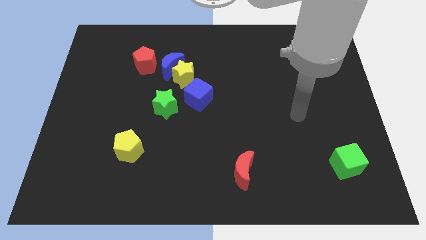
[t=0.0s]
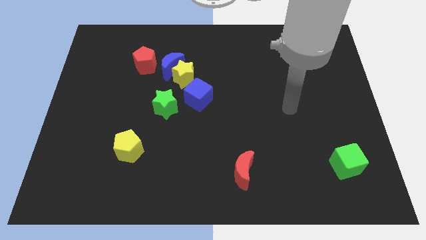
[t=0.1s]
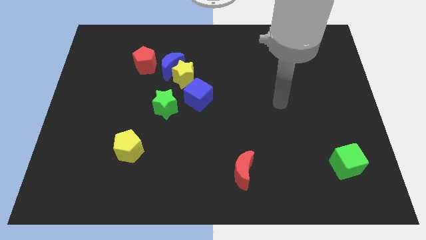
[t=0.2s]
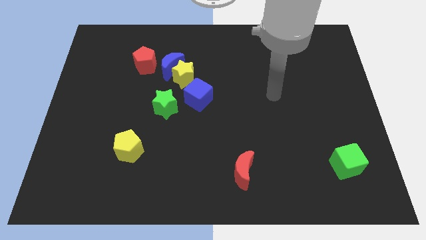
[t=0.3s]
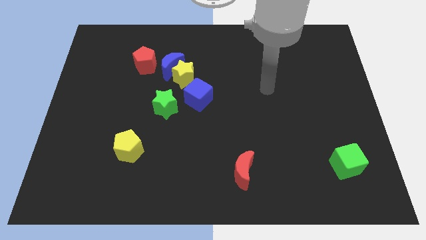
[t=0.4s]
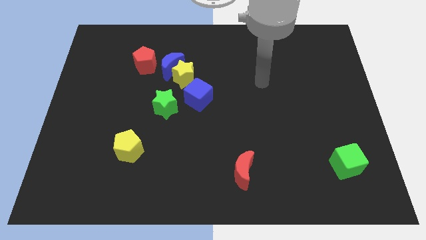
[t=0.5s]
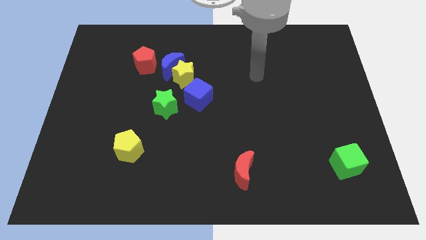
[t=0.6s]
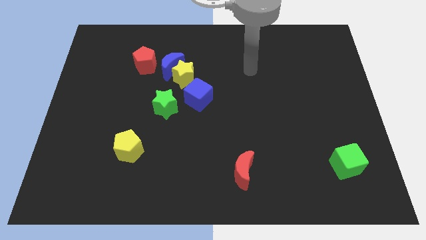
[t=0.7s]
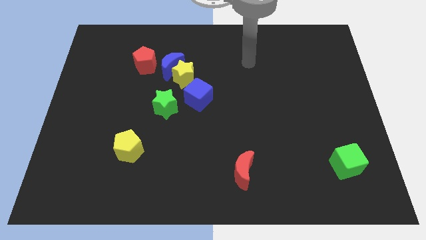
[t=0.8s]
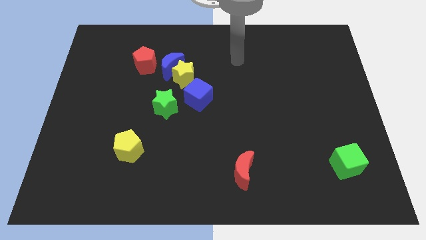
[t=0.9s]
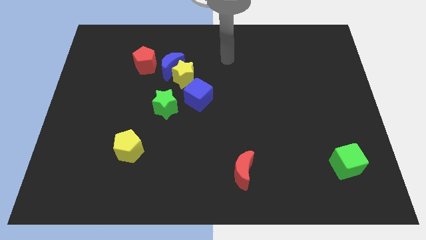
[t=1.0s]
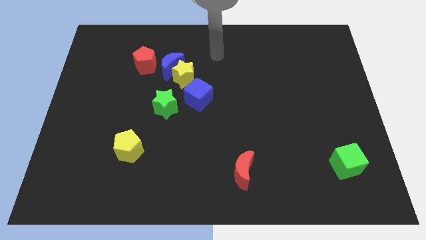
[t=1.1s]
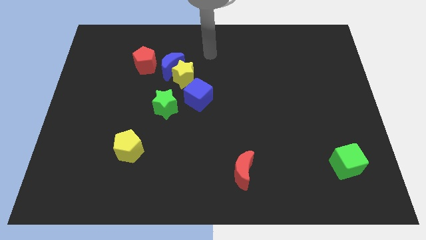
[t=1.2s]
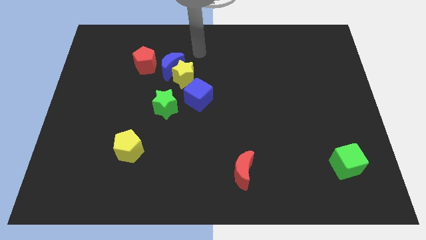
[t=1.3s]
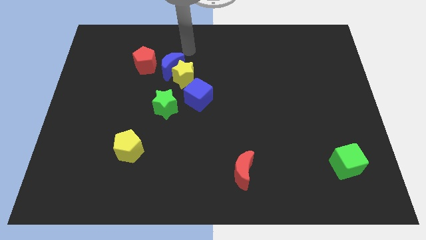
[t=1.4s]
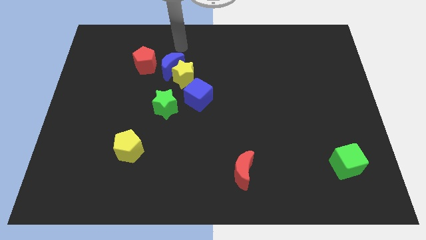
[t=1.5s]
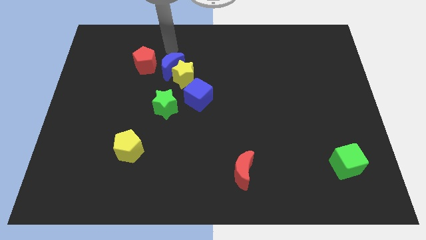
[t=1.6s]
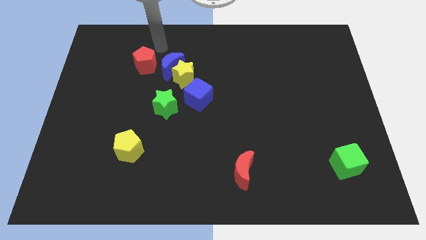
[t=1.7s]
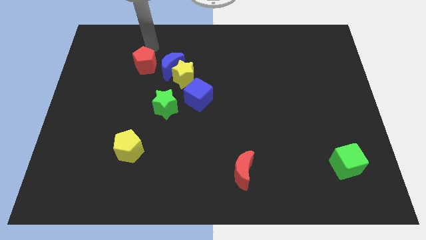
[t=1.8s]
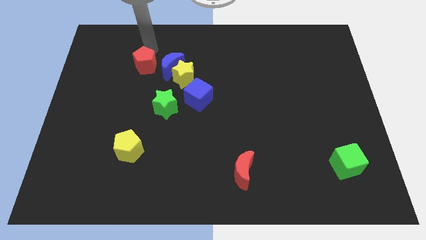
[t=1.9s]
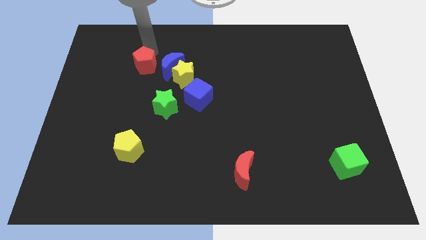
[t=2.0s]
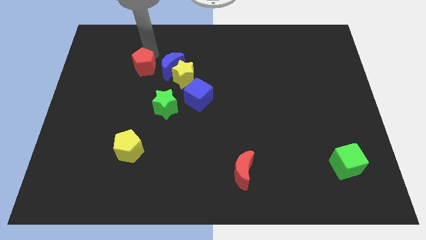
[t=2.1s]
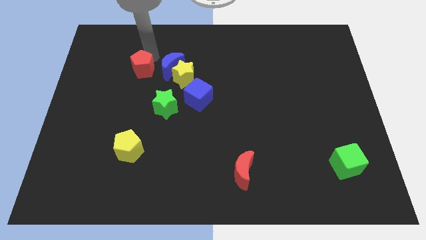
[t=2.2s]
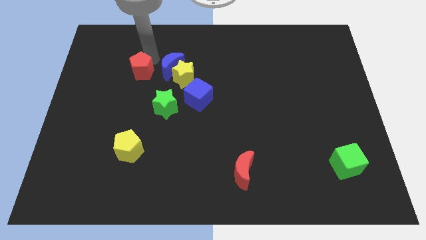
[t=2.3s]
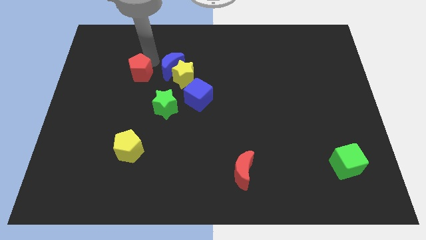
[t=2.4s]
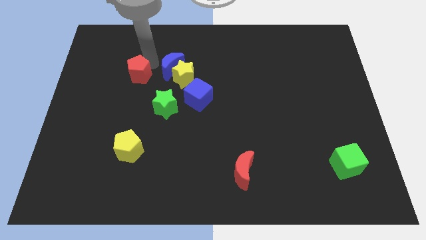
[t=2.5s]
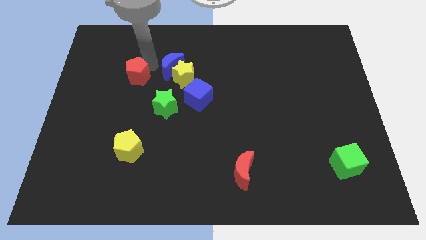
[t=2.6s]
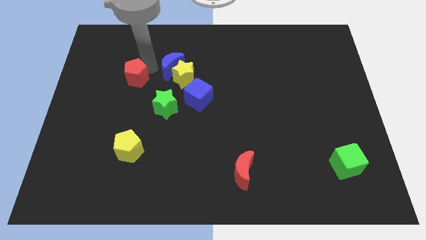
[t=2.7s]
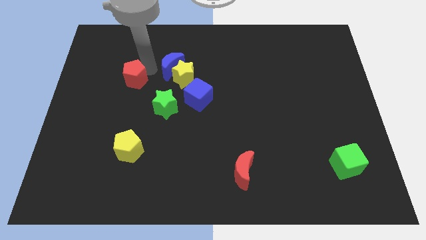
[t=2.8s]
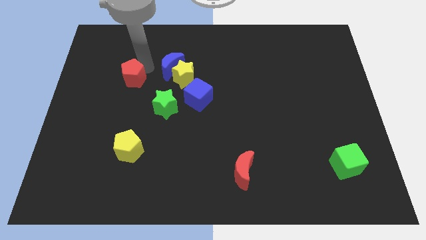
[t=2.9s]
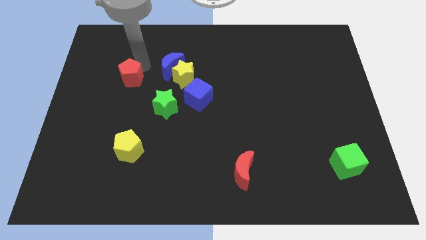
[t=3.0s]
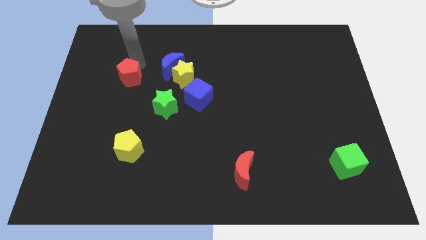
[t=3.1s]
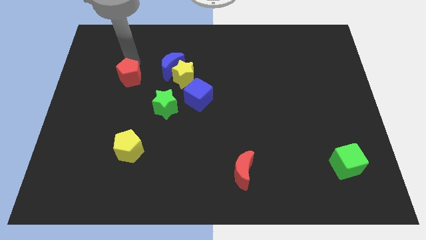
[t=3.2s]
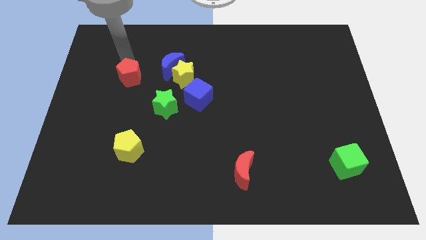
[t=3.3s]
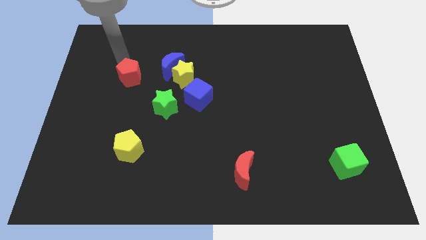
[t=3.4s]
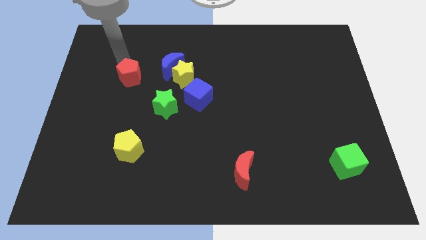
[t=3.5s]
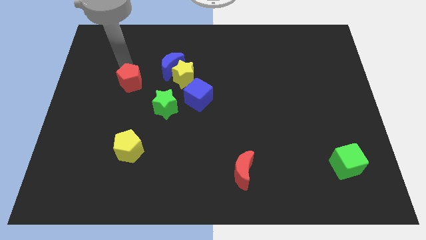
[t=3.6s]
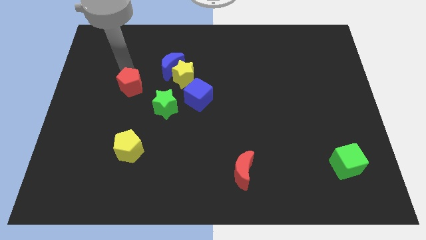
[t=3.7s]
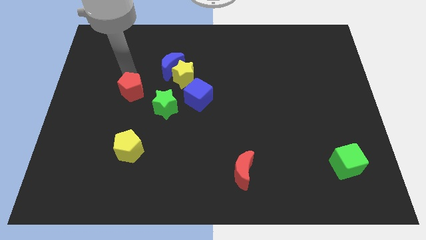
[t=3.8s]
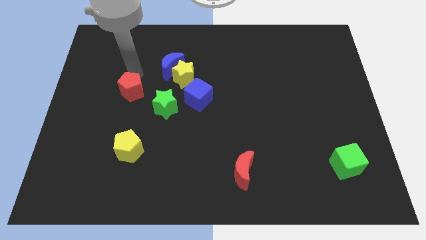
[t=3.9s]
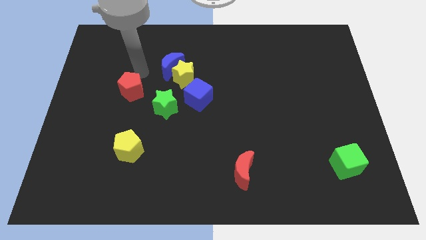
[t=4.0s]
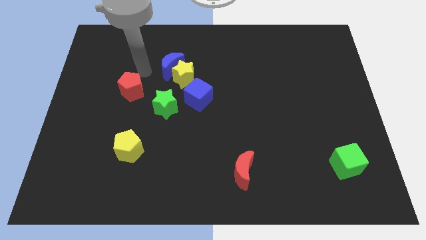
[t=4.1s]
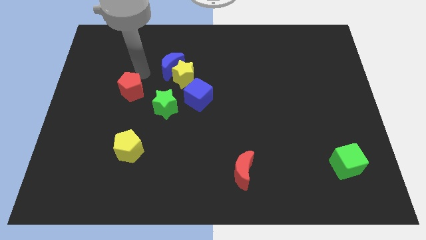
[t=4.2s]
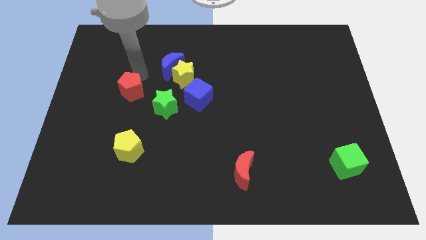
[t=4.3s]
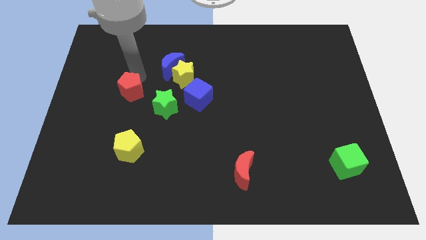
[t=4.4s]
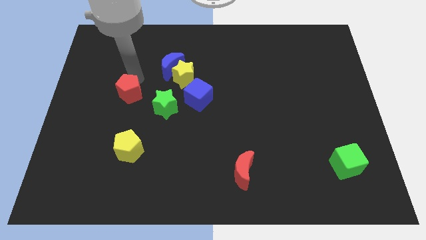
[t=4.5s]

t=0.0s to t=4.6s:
move the red pentagon to the left of the green star

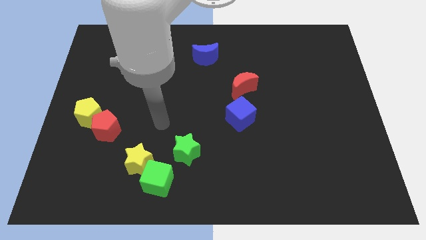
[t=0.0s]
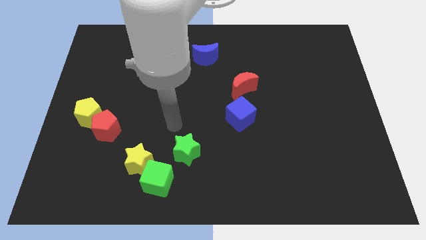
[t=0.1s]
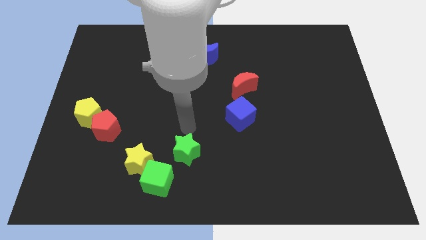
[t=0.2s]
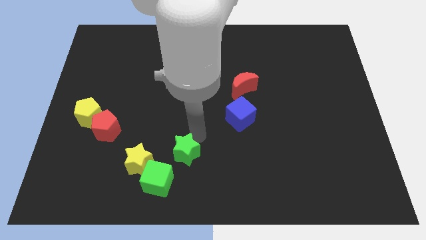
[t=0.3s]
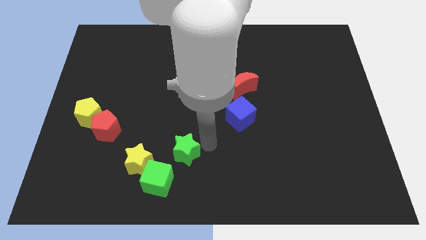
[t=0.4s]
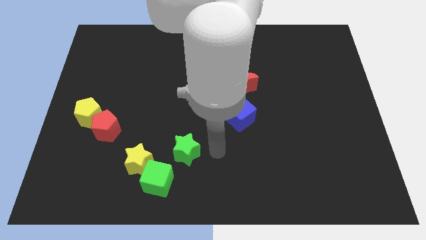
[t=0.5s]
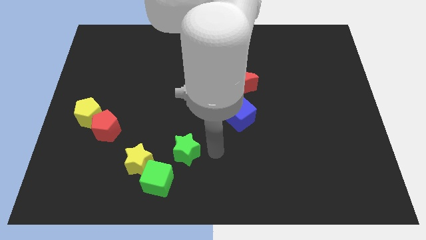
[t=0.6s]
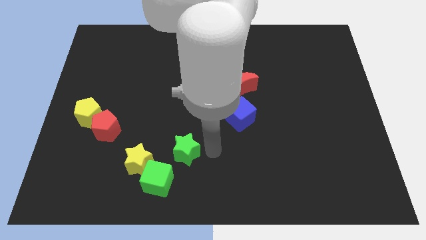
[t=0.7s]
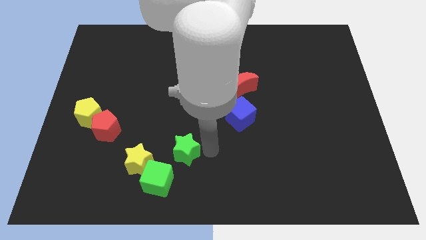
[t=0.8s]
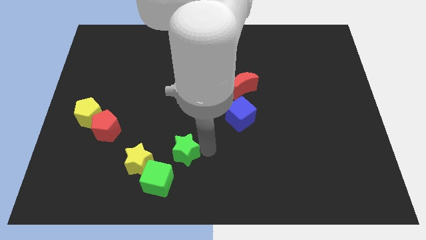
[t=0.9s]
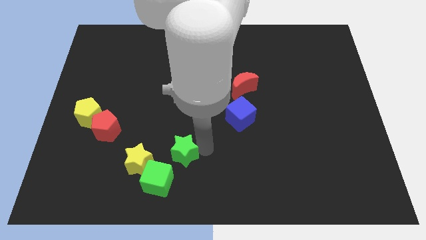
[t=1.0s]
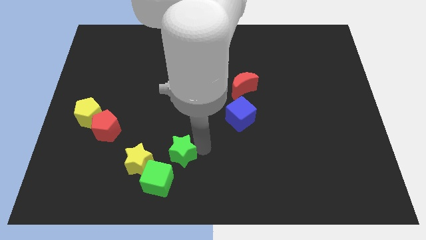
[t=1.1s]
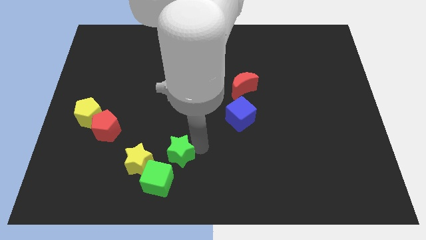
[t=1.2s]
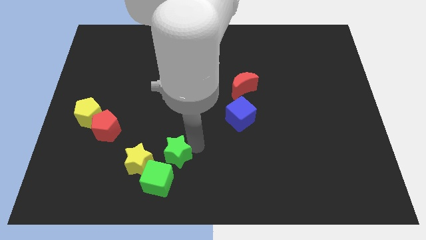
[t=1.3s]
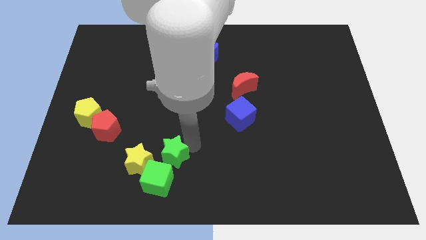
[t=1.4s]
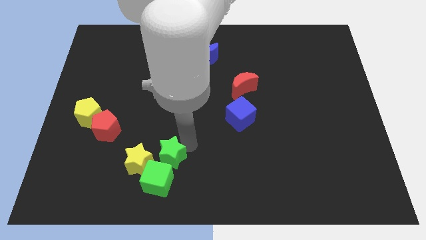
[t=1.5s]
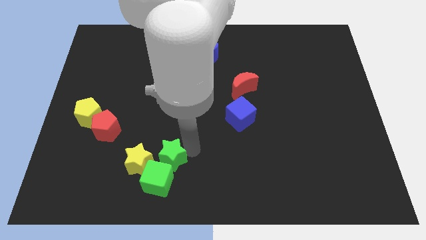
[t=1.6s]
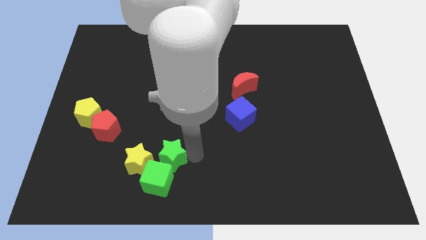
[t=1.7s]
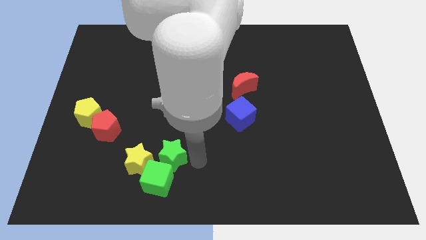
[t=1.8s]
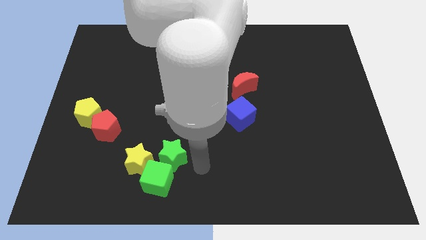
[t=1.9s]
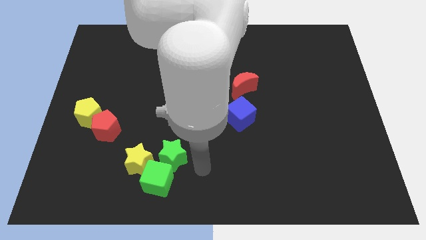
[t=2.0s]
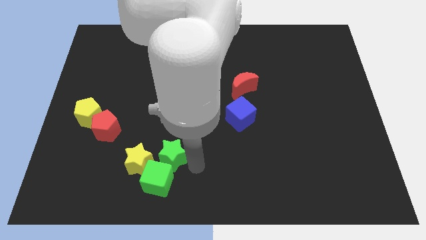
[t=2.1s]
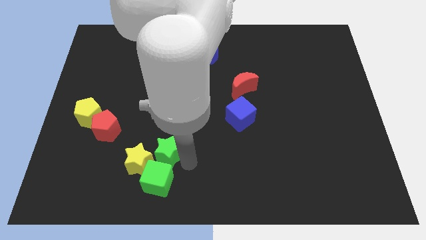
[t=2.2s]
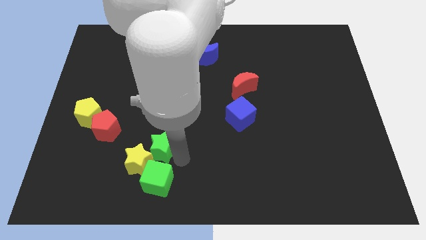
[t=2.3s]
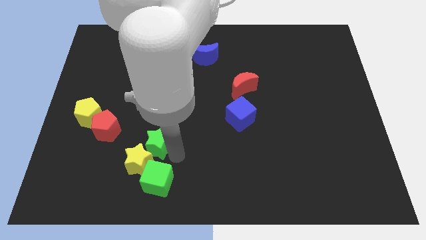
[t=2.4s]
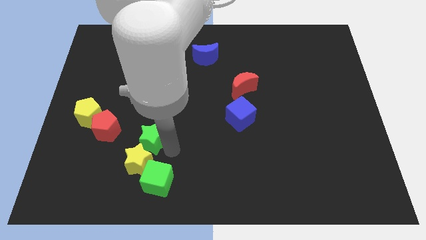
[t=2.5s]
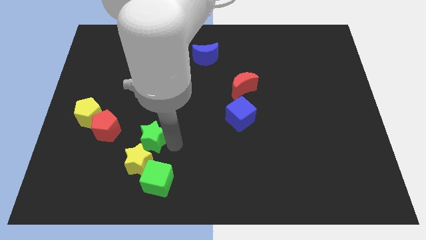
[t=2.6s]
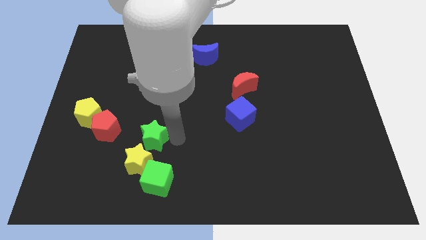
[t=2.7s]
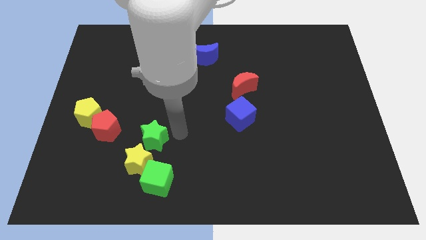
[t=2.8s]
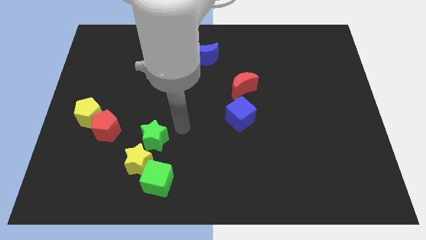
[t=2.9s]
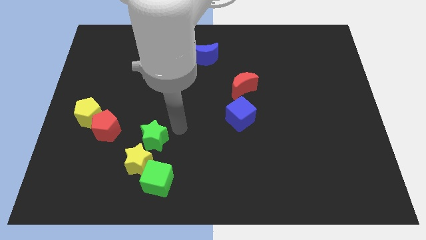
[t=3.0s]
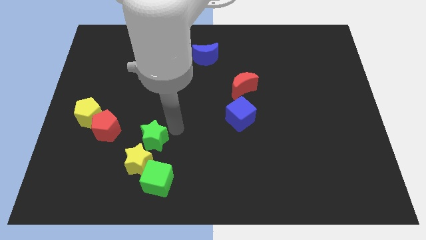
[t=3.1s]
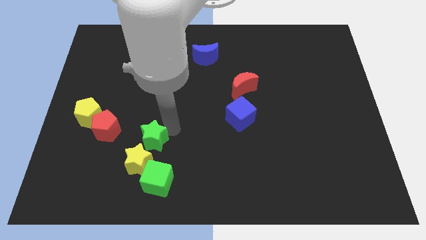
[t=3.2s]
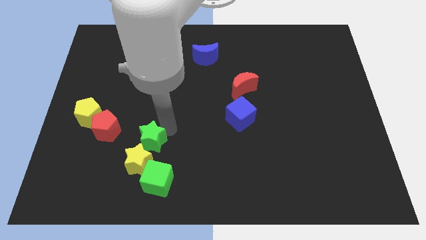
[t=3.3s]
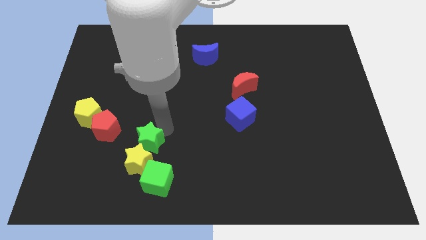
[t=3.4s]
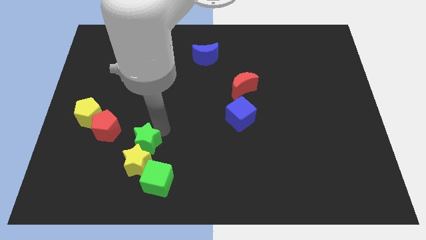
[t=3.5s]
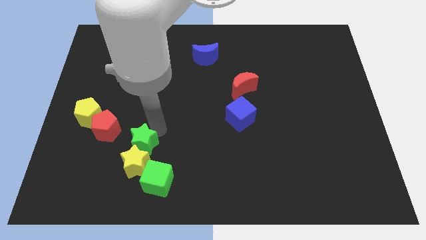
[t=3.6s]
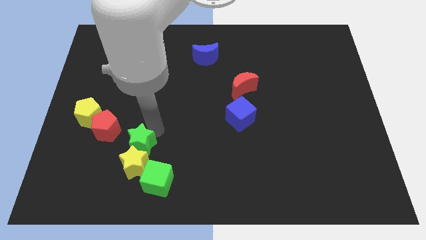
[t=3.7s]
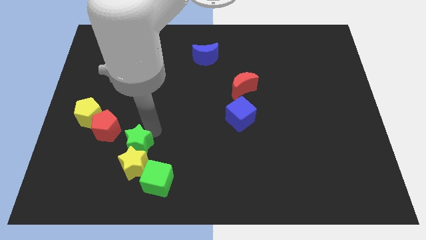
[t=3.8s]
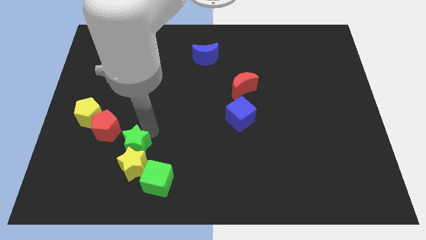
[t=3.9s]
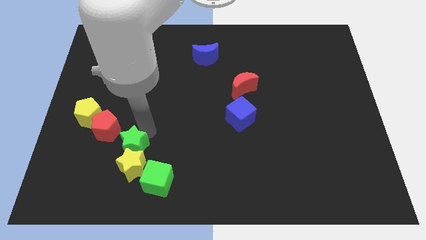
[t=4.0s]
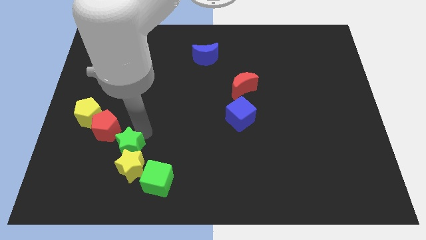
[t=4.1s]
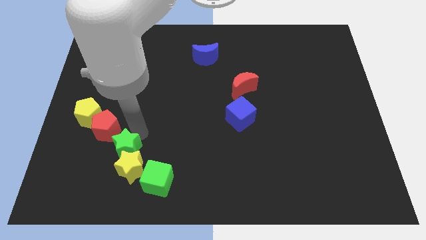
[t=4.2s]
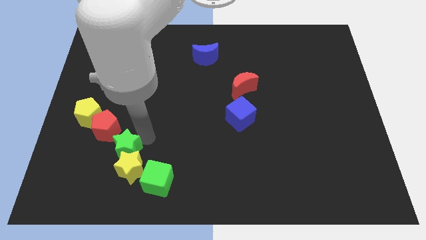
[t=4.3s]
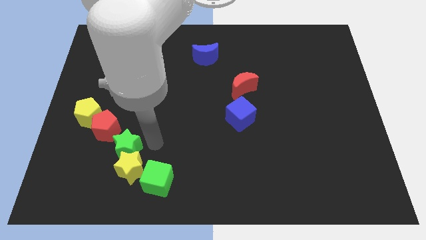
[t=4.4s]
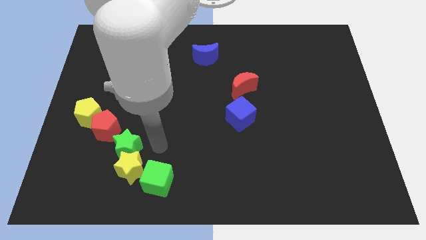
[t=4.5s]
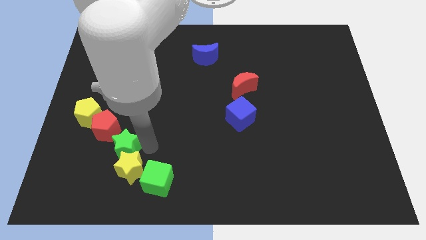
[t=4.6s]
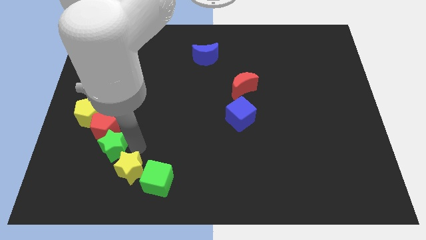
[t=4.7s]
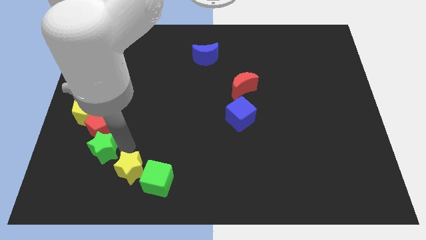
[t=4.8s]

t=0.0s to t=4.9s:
push the green star to the bottom left of the red pentagon
